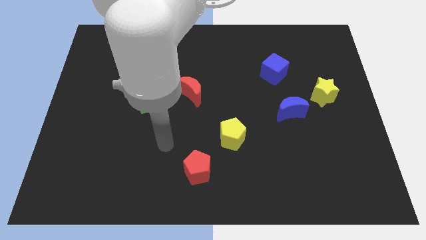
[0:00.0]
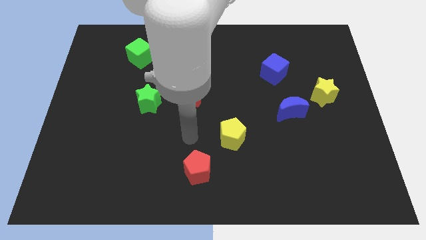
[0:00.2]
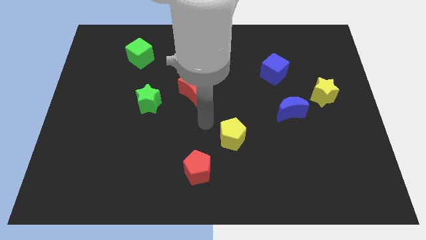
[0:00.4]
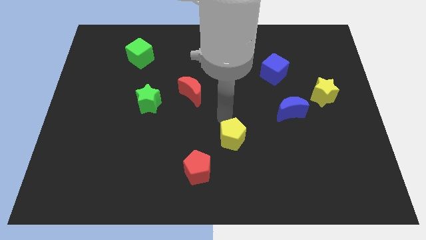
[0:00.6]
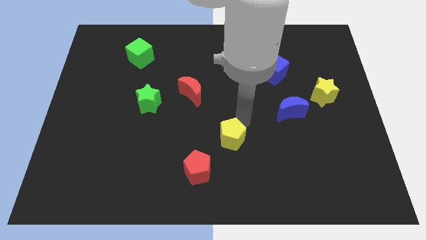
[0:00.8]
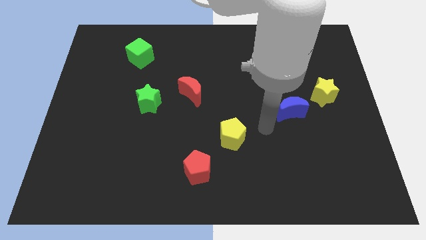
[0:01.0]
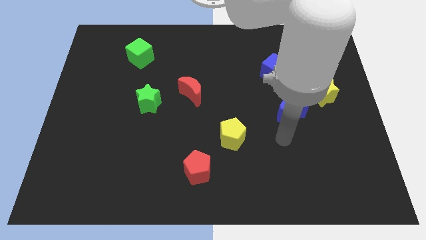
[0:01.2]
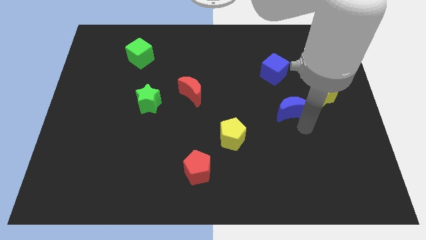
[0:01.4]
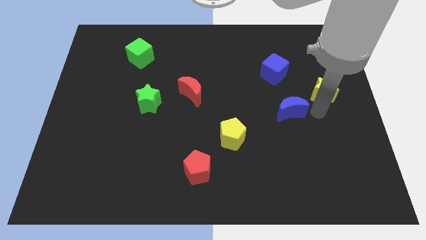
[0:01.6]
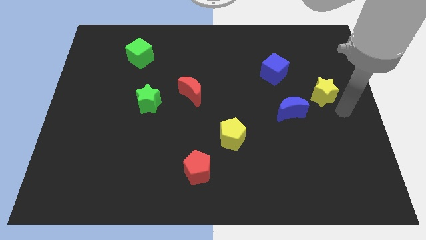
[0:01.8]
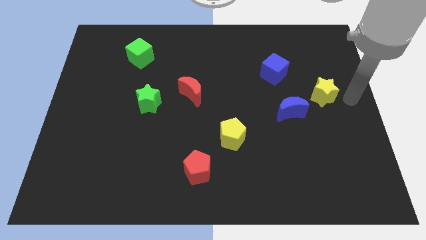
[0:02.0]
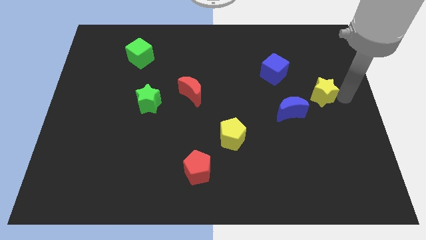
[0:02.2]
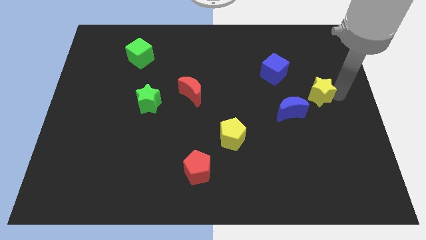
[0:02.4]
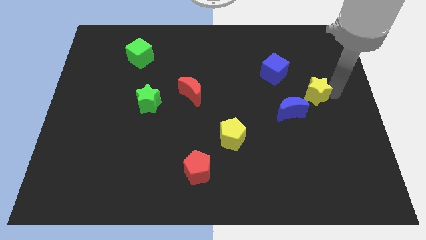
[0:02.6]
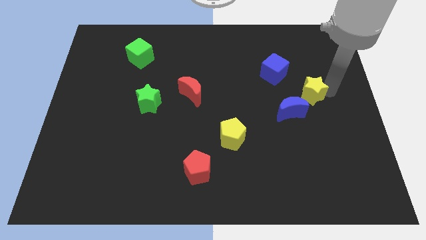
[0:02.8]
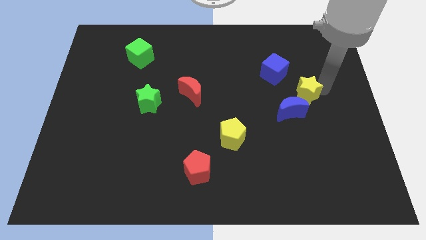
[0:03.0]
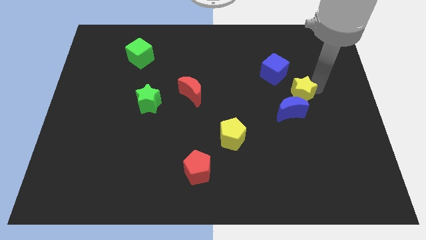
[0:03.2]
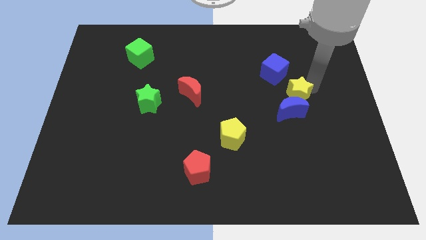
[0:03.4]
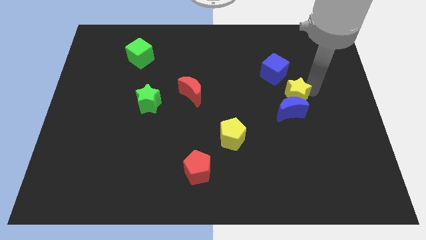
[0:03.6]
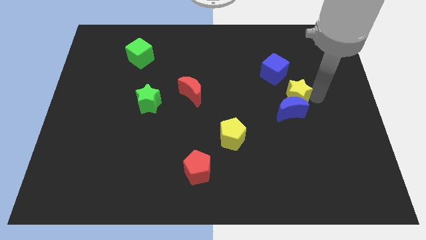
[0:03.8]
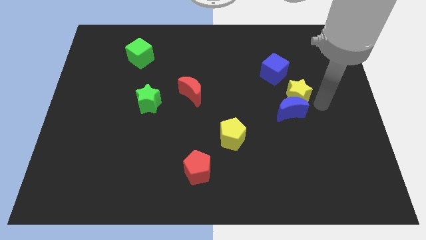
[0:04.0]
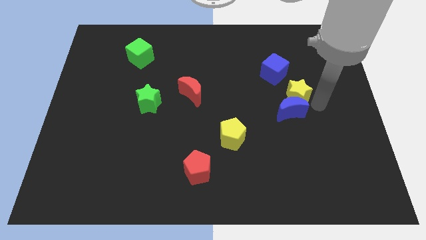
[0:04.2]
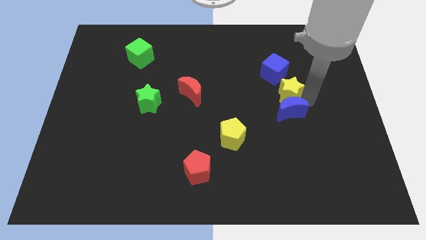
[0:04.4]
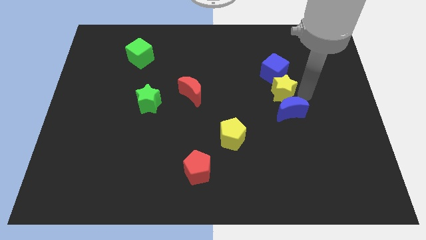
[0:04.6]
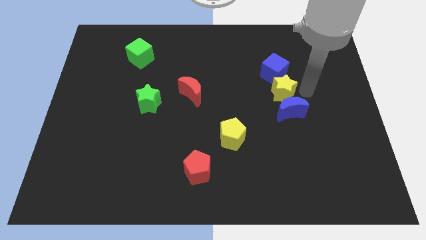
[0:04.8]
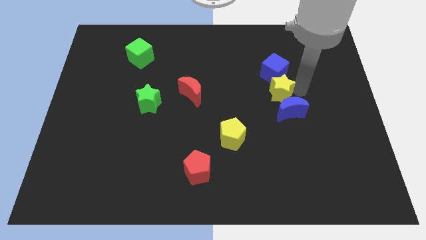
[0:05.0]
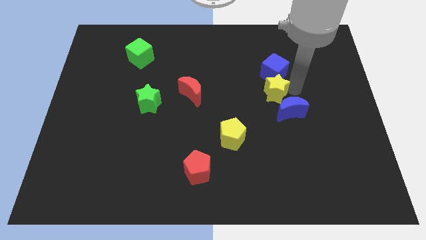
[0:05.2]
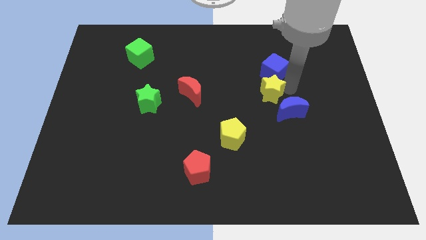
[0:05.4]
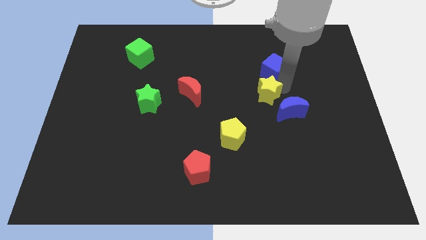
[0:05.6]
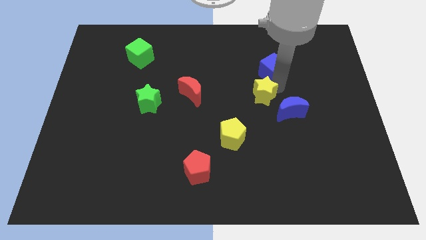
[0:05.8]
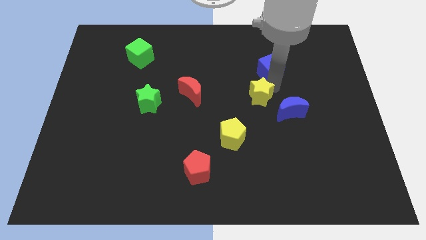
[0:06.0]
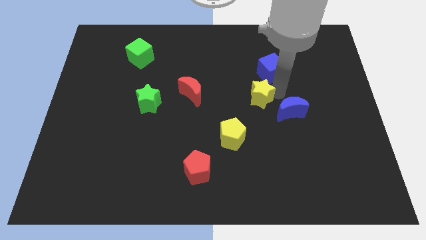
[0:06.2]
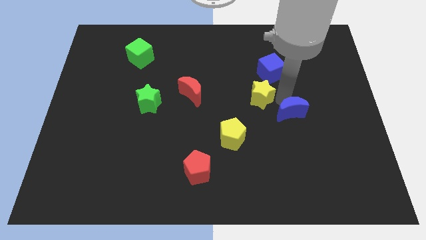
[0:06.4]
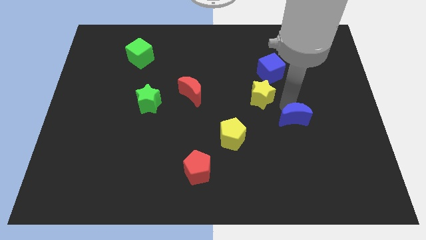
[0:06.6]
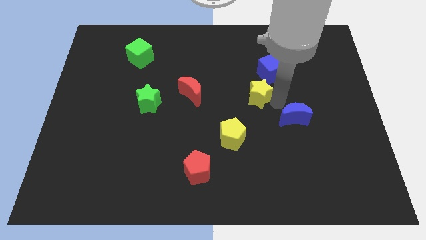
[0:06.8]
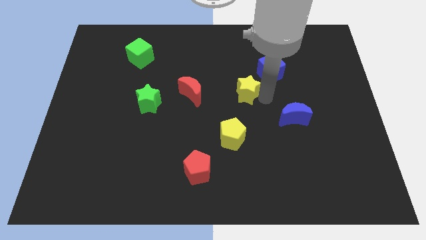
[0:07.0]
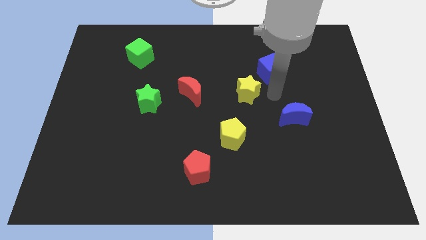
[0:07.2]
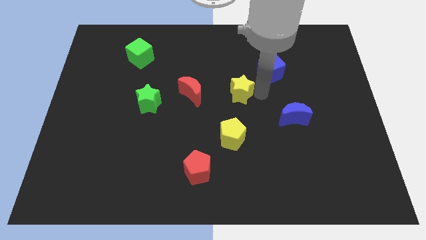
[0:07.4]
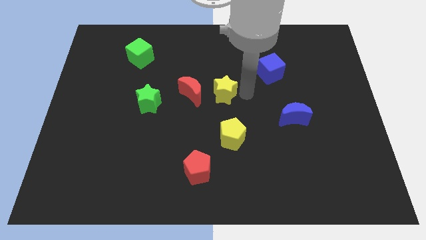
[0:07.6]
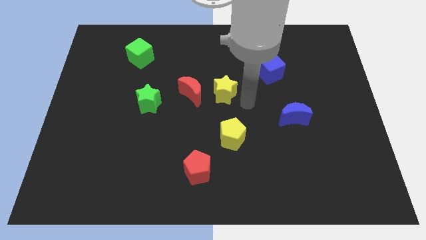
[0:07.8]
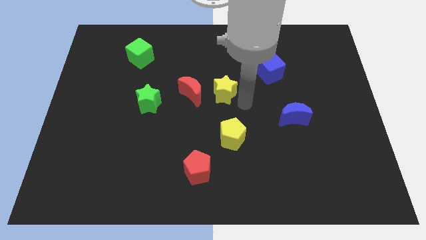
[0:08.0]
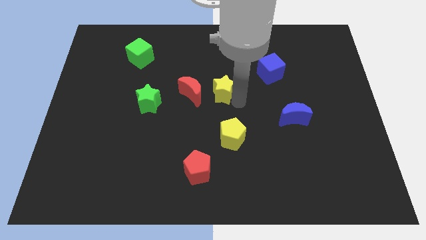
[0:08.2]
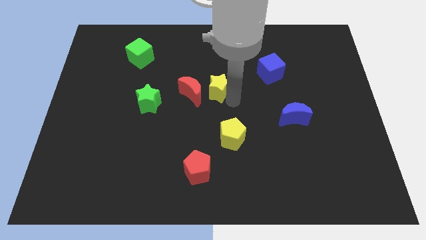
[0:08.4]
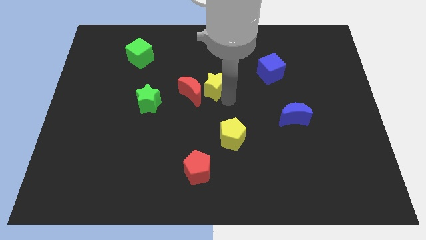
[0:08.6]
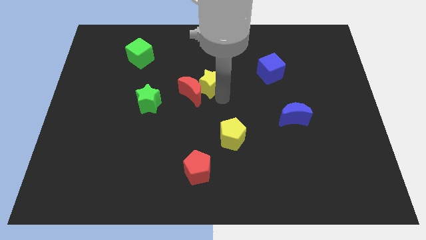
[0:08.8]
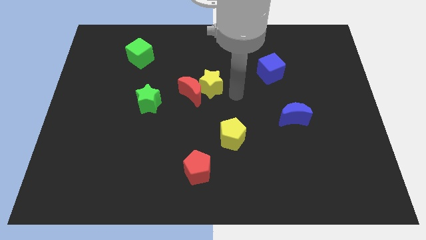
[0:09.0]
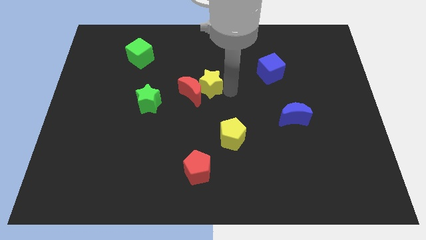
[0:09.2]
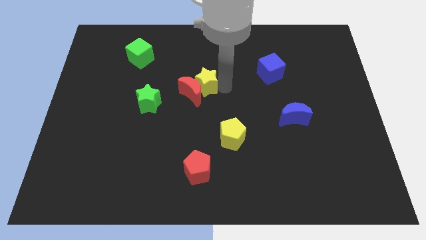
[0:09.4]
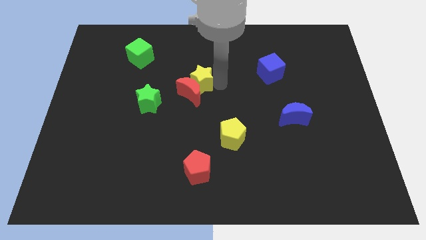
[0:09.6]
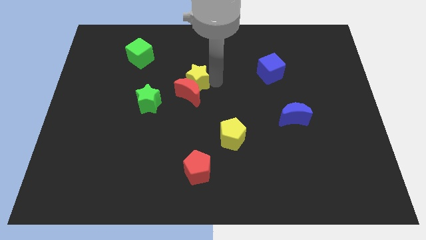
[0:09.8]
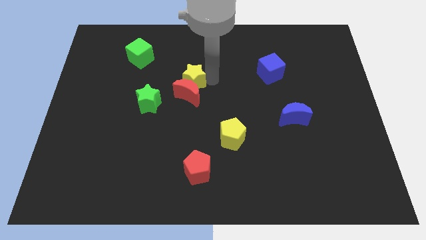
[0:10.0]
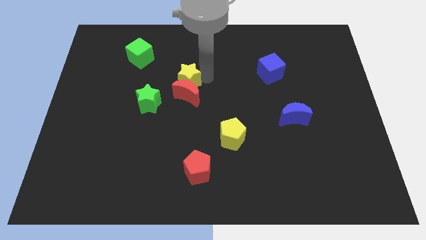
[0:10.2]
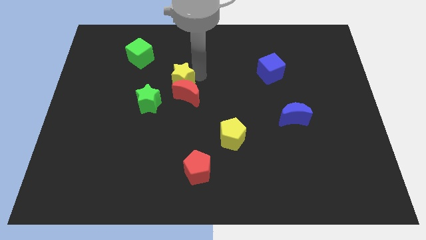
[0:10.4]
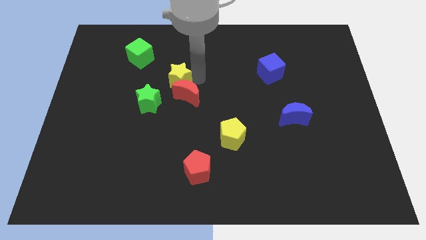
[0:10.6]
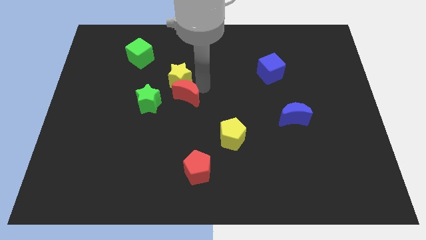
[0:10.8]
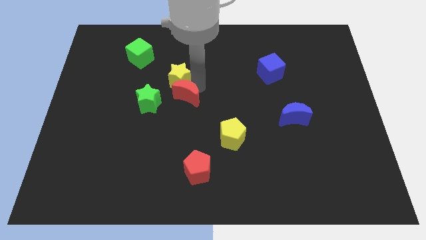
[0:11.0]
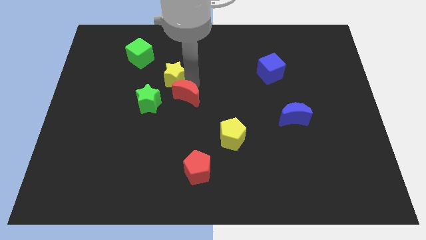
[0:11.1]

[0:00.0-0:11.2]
slide the yellow star to the bottom right side of the green cube

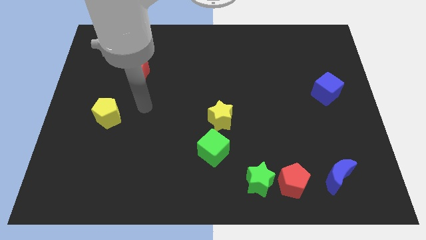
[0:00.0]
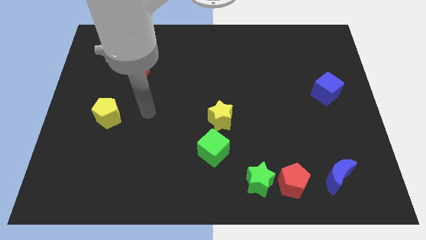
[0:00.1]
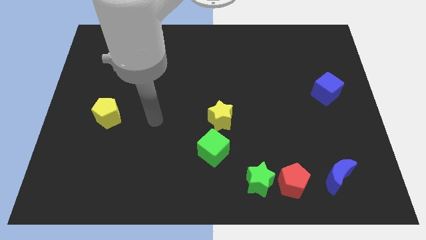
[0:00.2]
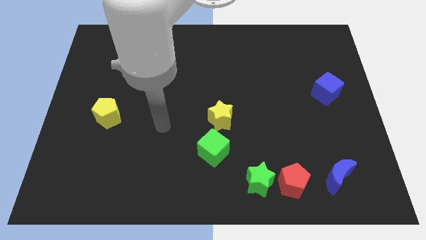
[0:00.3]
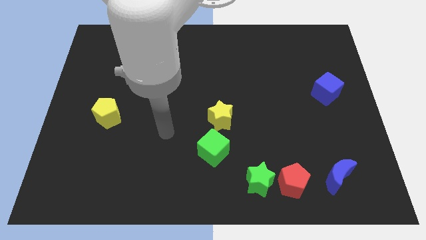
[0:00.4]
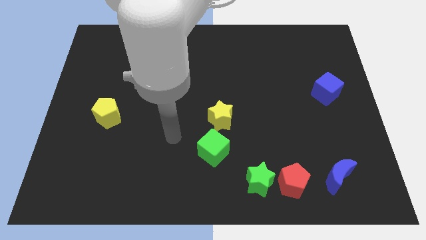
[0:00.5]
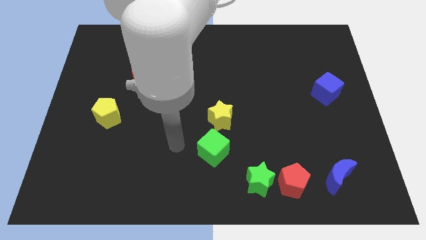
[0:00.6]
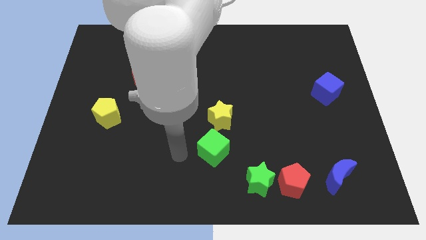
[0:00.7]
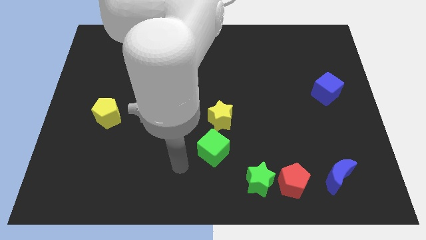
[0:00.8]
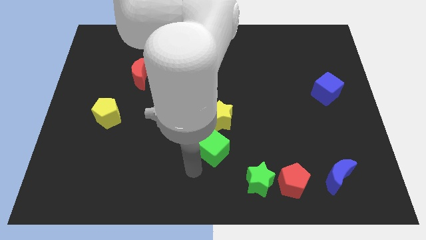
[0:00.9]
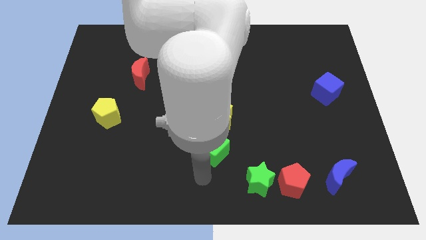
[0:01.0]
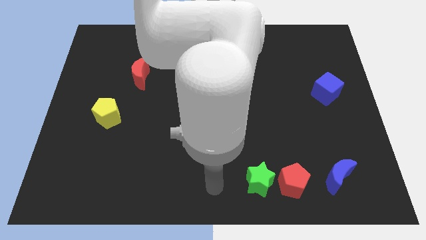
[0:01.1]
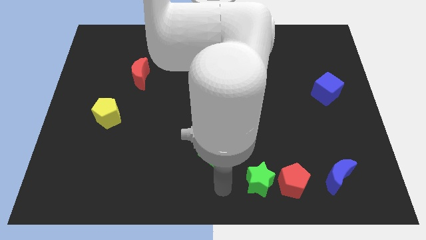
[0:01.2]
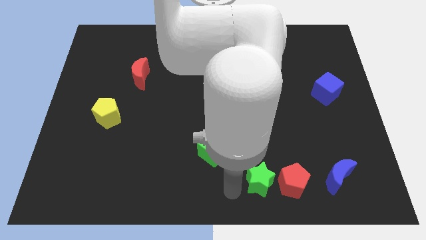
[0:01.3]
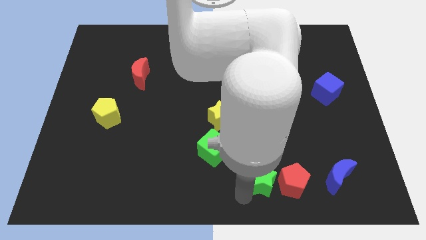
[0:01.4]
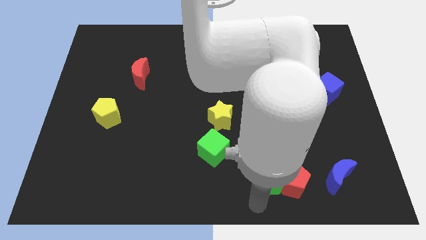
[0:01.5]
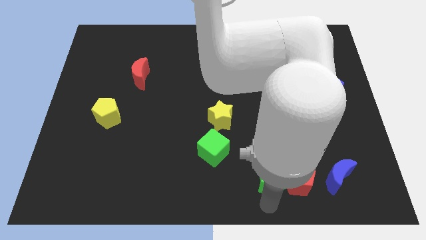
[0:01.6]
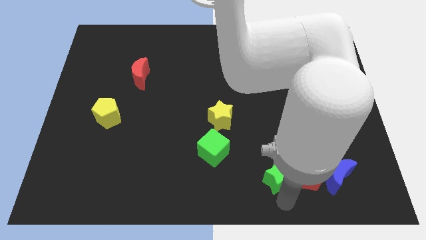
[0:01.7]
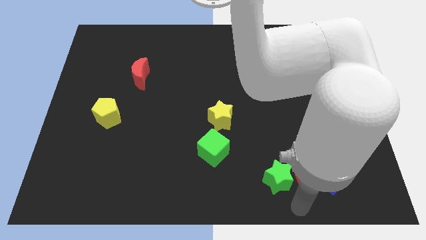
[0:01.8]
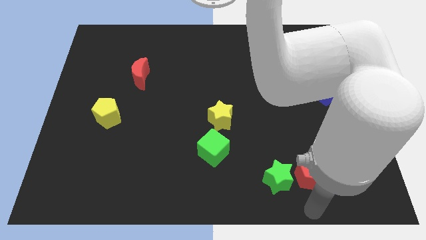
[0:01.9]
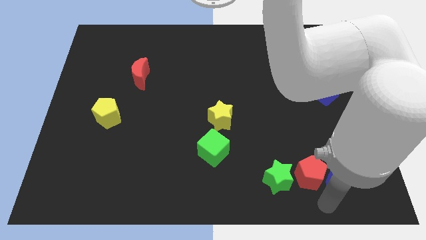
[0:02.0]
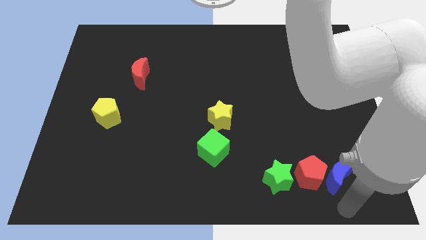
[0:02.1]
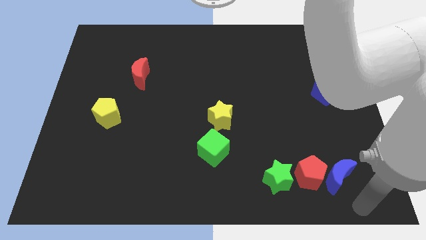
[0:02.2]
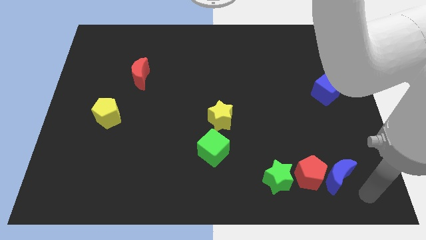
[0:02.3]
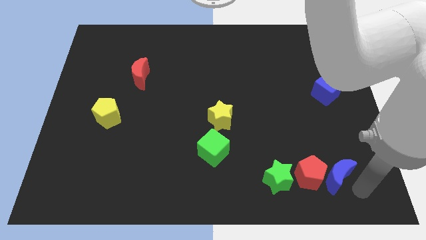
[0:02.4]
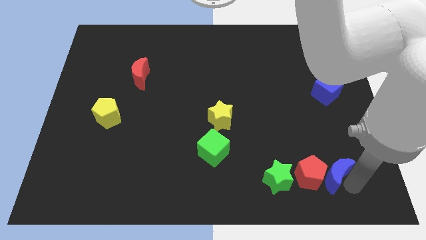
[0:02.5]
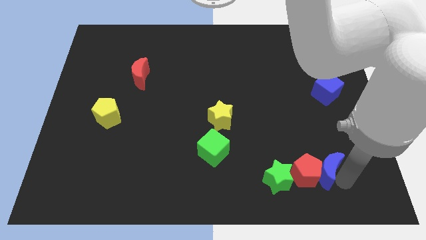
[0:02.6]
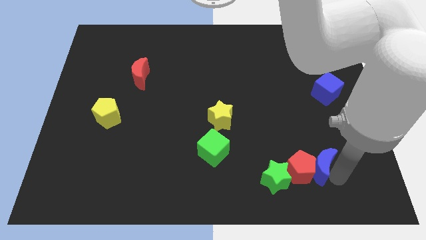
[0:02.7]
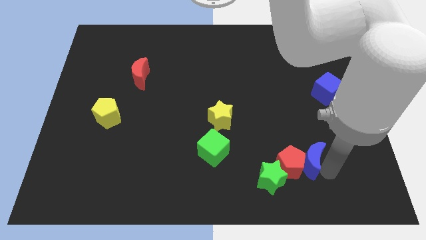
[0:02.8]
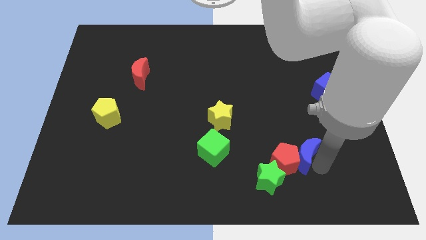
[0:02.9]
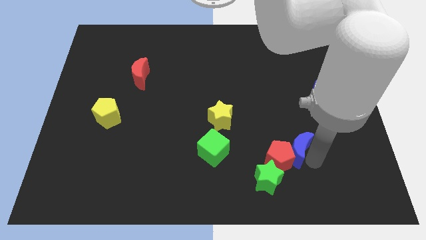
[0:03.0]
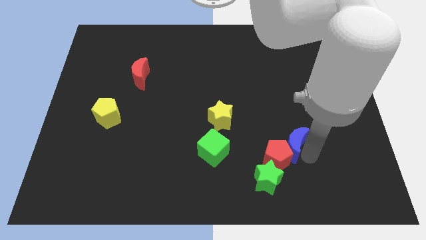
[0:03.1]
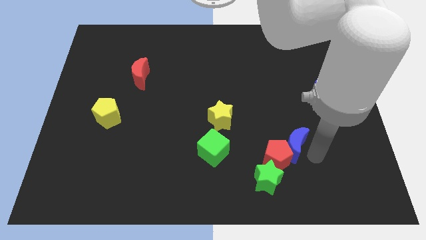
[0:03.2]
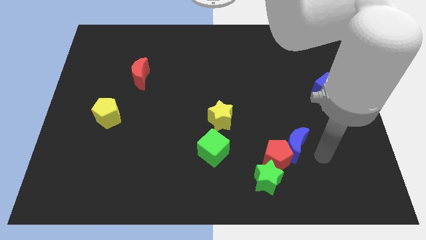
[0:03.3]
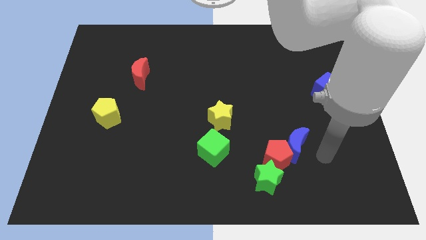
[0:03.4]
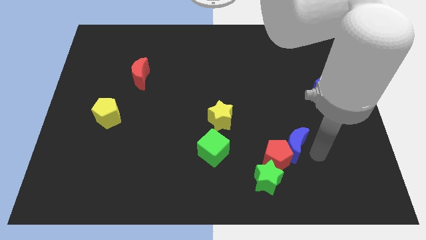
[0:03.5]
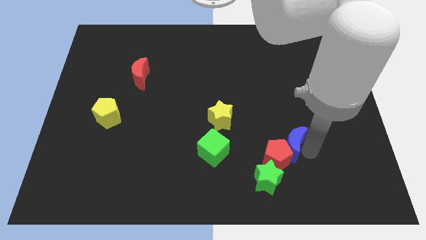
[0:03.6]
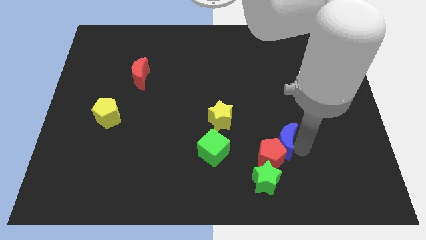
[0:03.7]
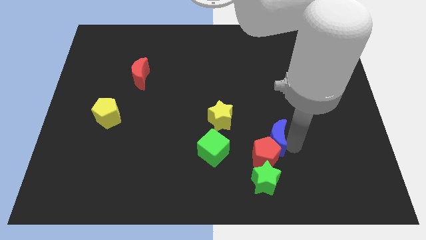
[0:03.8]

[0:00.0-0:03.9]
move the blue moon above the green star
